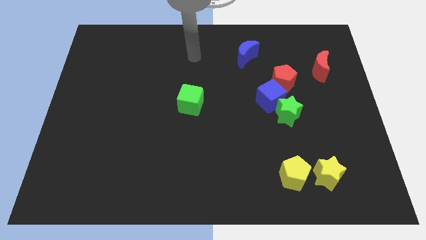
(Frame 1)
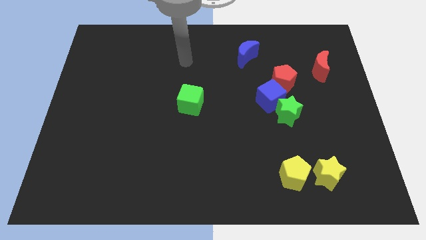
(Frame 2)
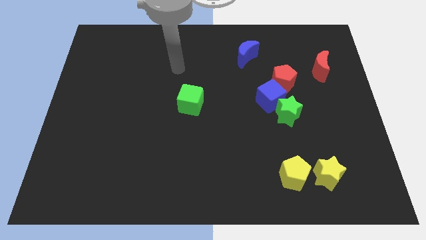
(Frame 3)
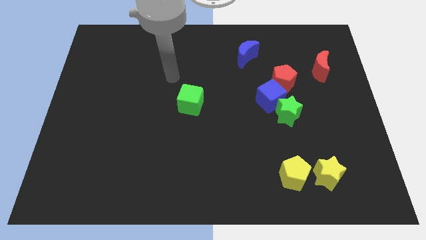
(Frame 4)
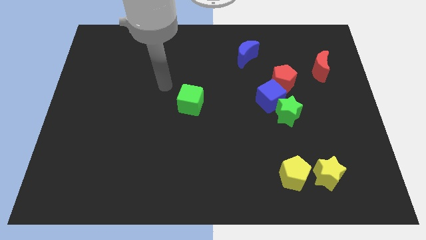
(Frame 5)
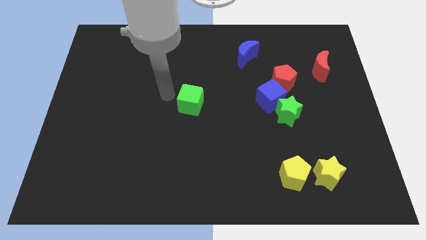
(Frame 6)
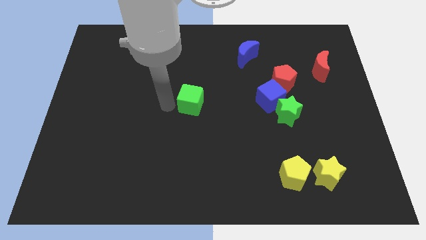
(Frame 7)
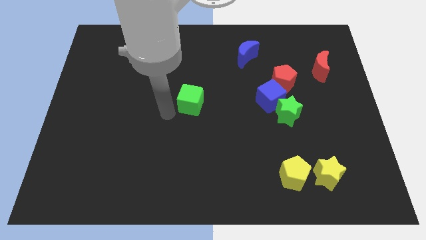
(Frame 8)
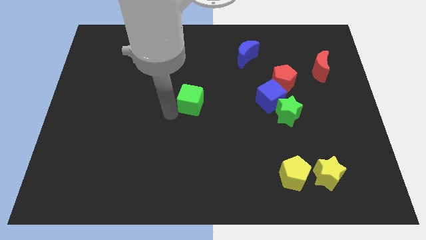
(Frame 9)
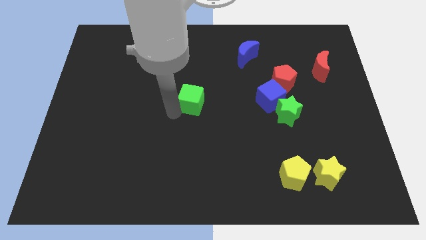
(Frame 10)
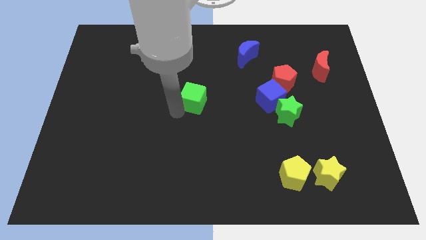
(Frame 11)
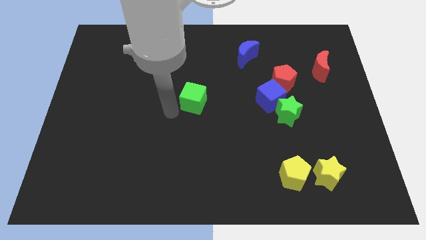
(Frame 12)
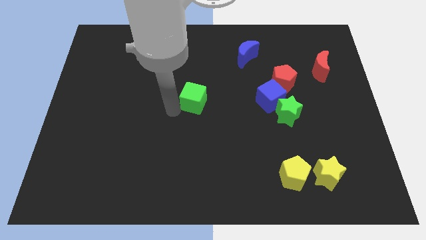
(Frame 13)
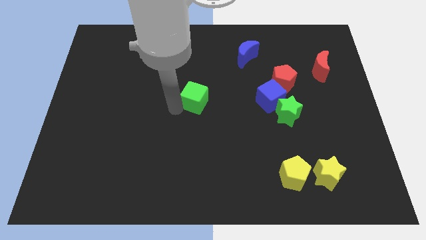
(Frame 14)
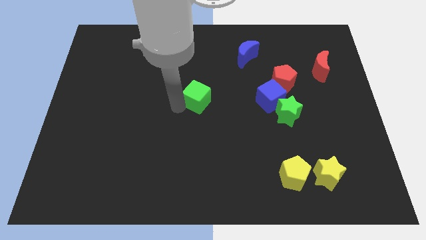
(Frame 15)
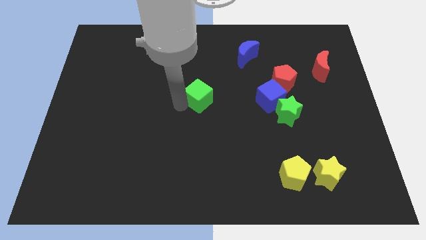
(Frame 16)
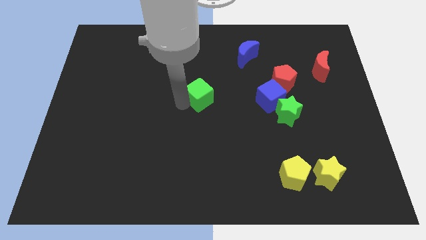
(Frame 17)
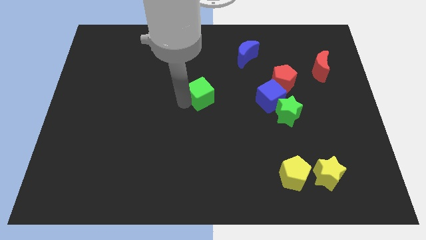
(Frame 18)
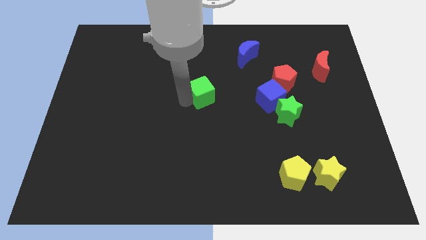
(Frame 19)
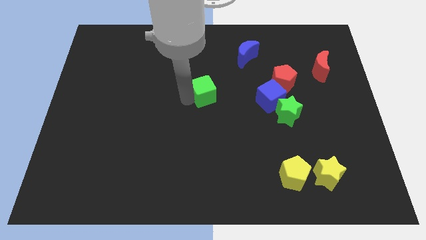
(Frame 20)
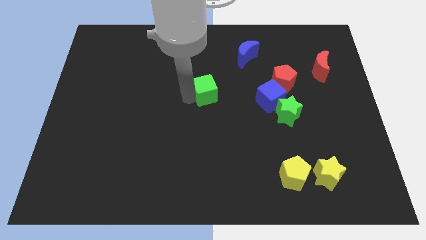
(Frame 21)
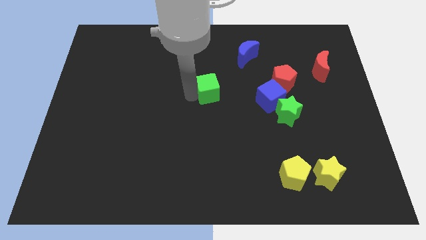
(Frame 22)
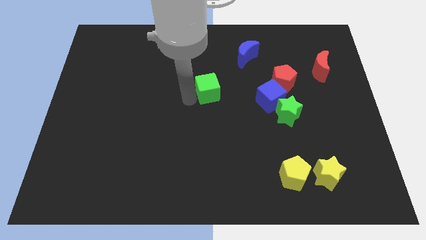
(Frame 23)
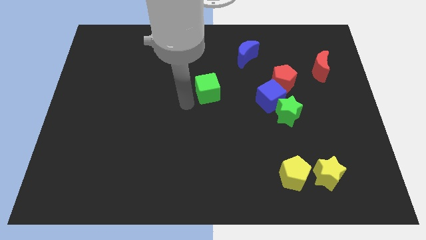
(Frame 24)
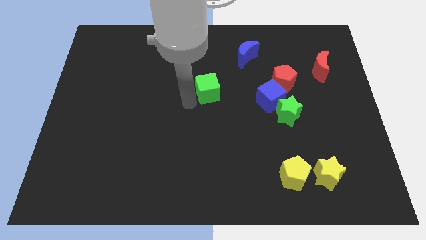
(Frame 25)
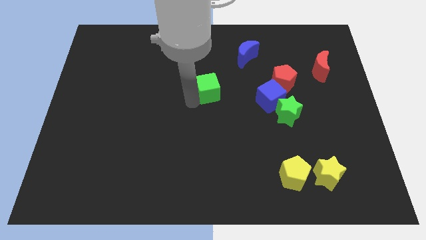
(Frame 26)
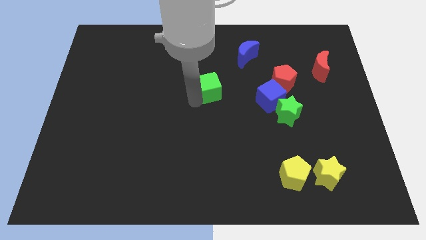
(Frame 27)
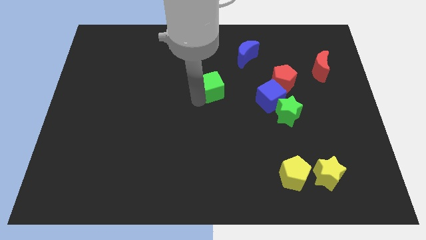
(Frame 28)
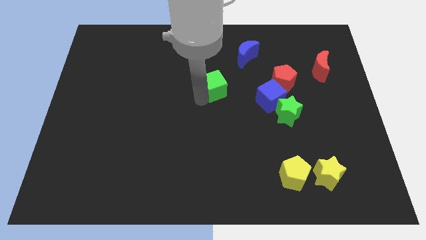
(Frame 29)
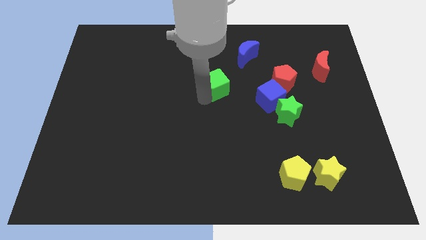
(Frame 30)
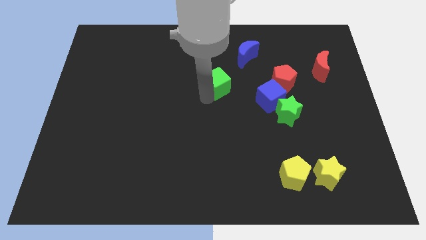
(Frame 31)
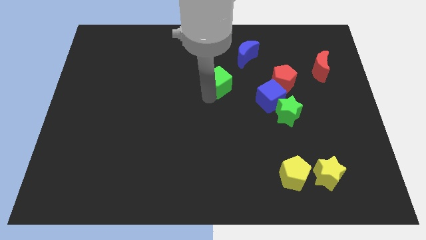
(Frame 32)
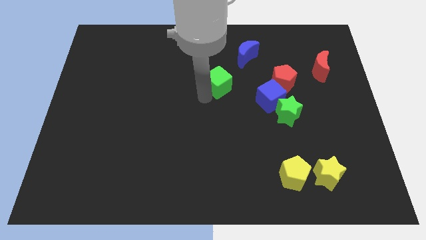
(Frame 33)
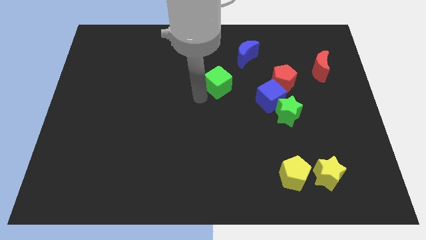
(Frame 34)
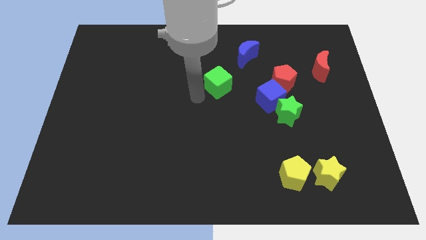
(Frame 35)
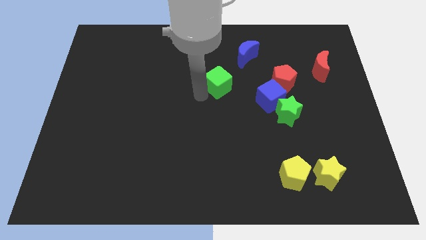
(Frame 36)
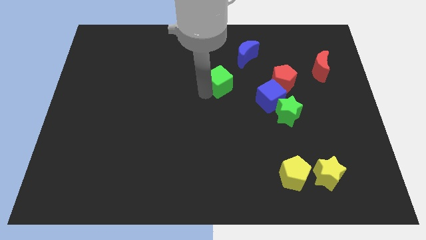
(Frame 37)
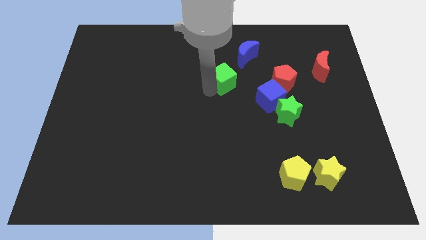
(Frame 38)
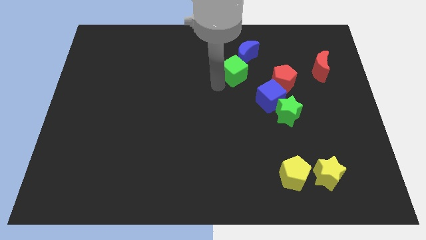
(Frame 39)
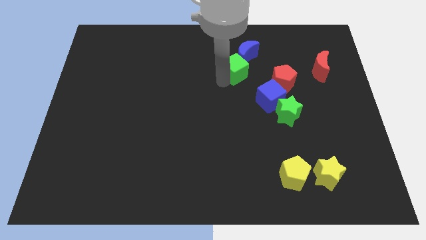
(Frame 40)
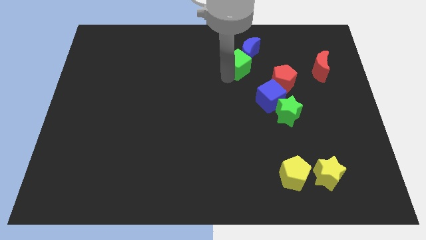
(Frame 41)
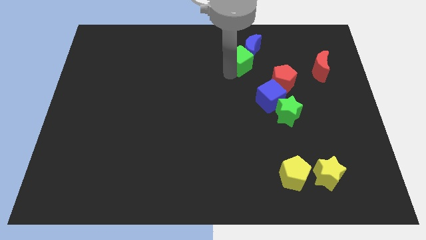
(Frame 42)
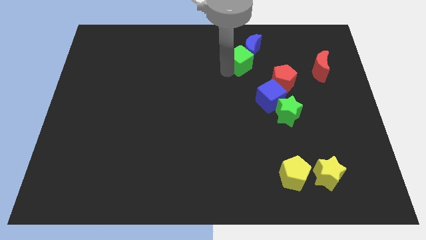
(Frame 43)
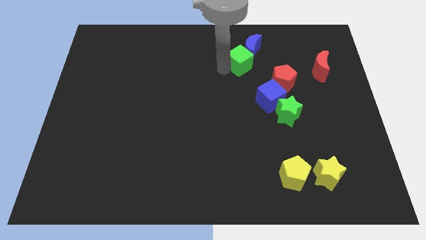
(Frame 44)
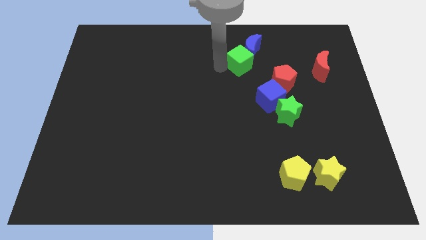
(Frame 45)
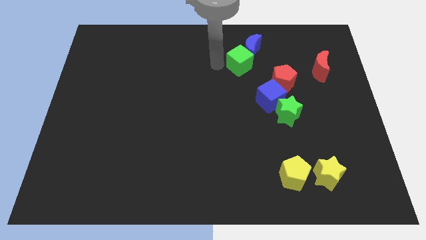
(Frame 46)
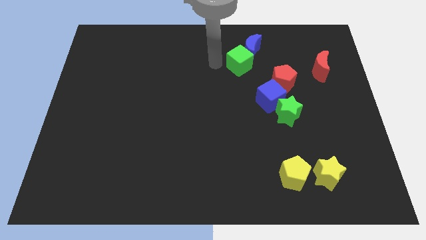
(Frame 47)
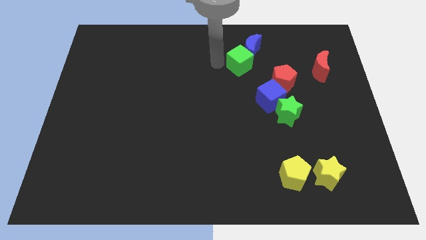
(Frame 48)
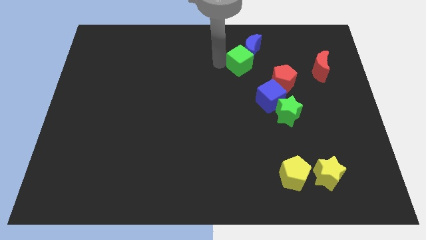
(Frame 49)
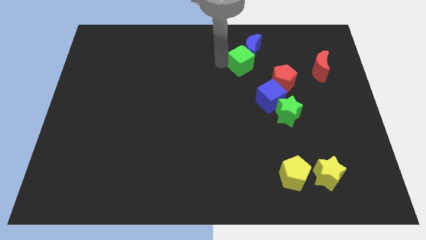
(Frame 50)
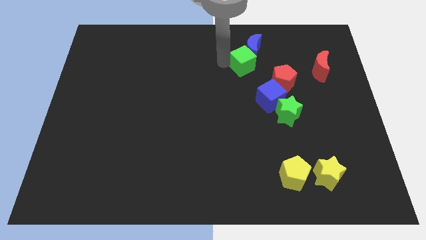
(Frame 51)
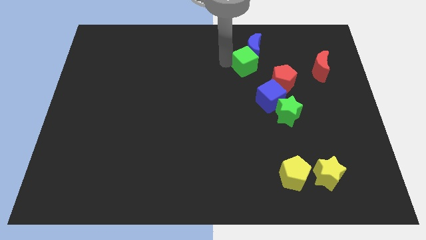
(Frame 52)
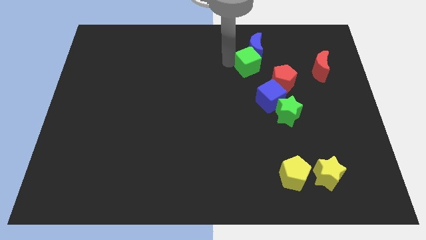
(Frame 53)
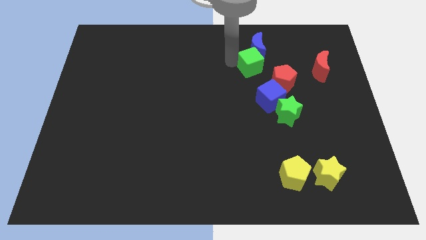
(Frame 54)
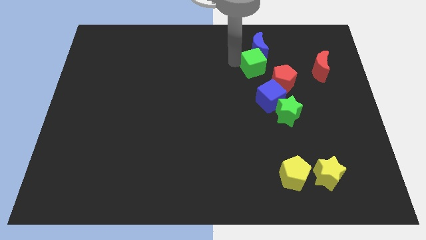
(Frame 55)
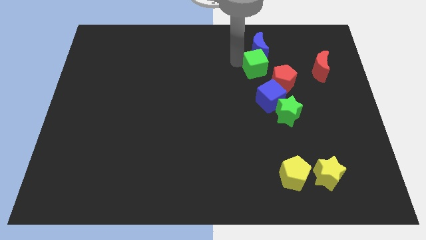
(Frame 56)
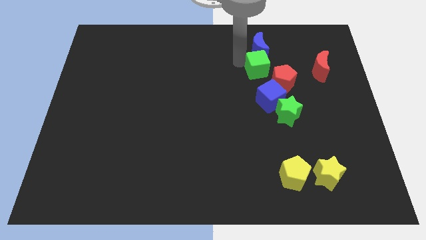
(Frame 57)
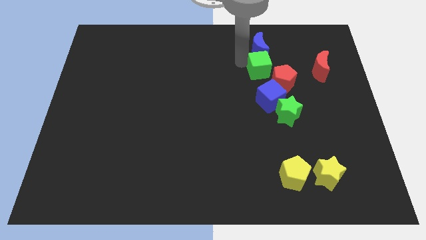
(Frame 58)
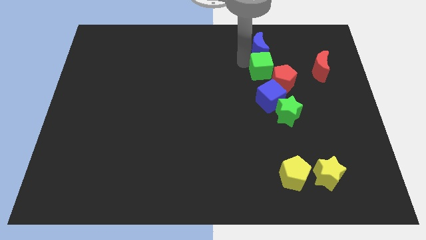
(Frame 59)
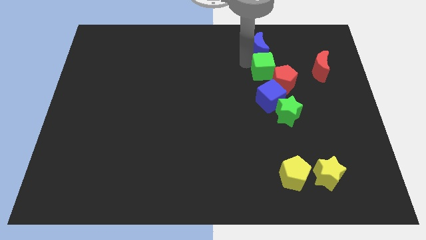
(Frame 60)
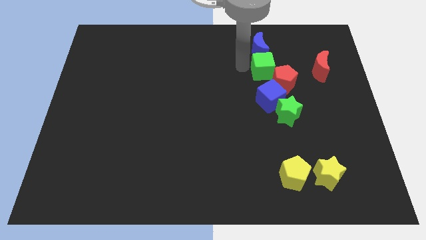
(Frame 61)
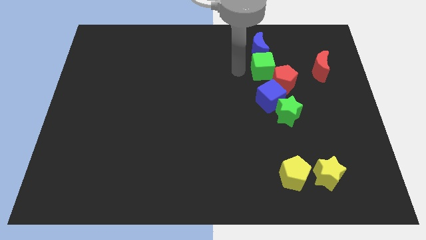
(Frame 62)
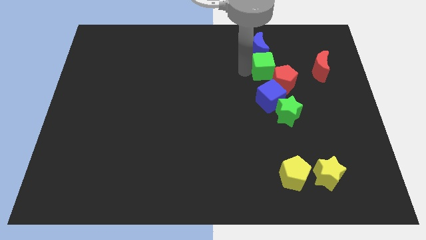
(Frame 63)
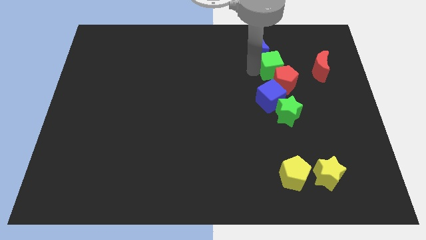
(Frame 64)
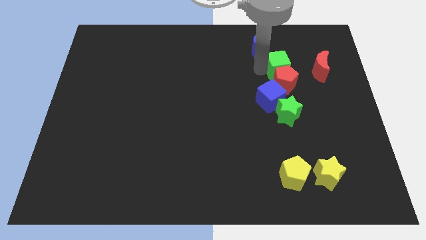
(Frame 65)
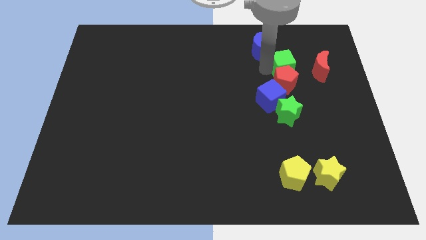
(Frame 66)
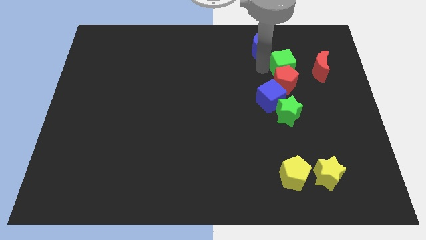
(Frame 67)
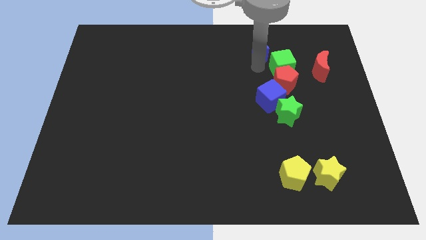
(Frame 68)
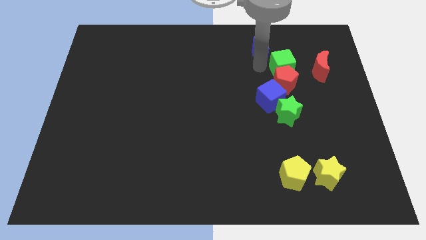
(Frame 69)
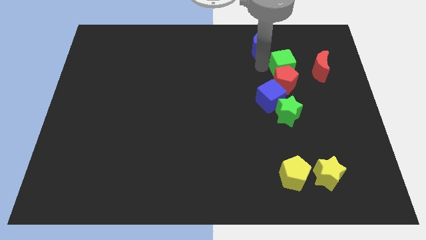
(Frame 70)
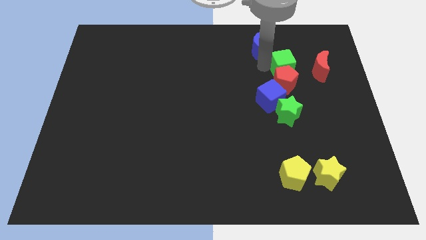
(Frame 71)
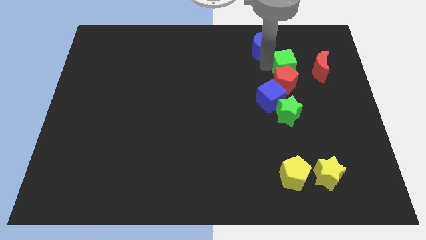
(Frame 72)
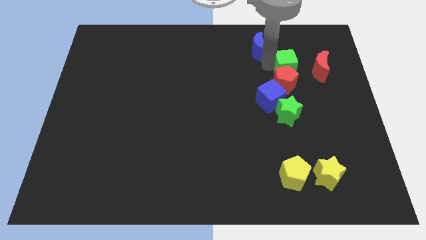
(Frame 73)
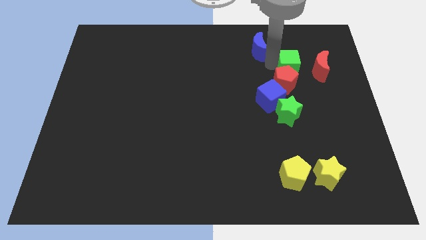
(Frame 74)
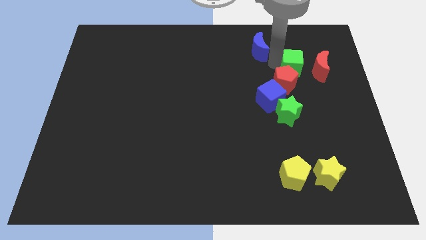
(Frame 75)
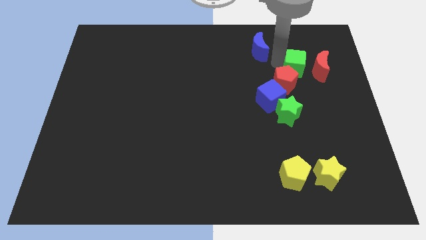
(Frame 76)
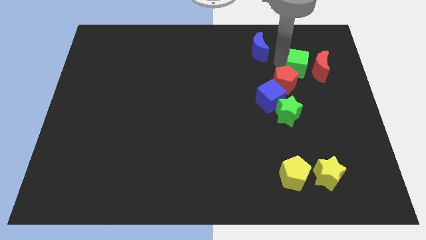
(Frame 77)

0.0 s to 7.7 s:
push the green cube close to the red moon
